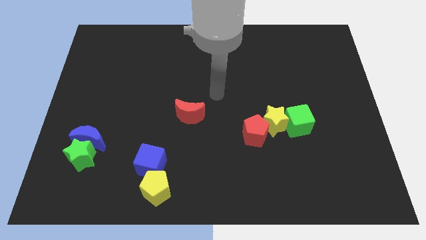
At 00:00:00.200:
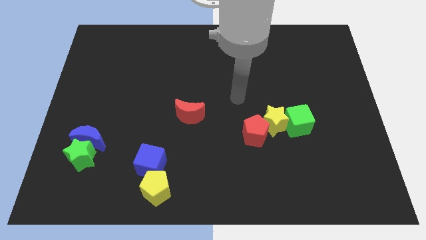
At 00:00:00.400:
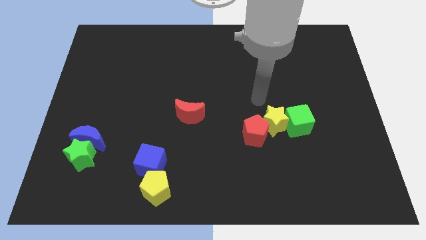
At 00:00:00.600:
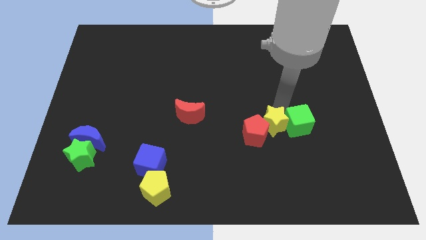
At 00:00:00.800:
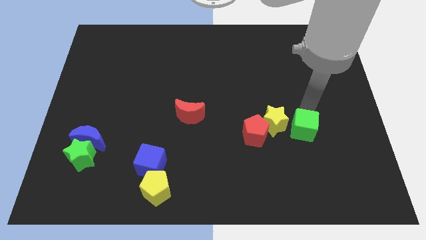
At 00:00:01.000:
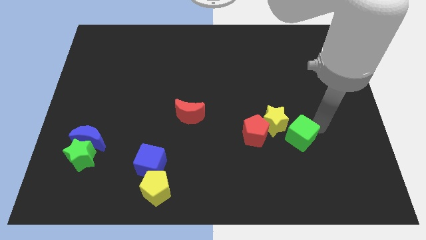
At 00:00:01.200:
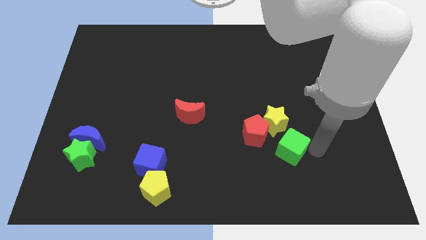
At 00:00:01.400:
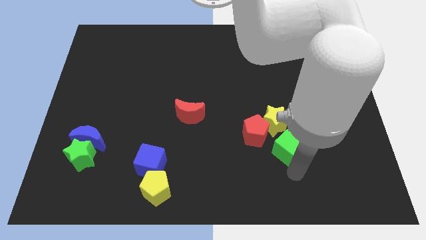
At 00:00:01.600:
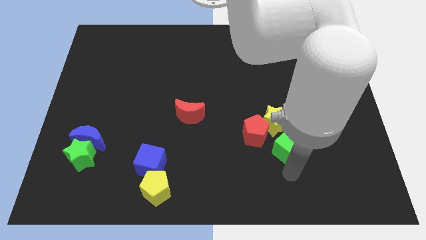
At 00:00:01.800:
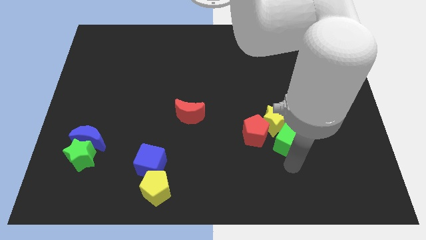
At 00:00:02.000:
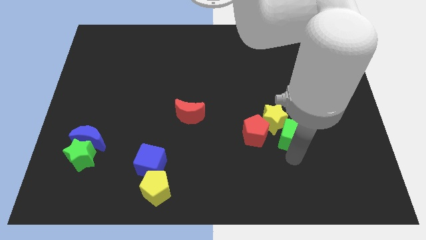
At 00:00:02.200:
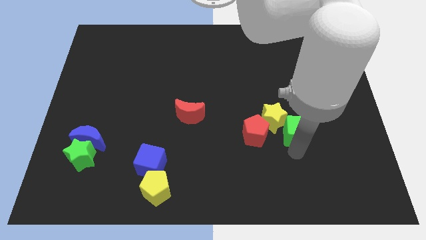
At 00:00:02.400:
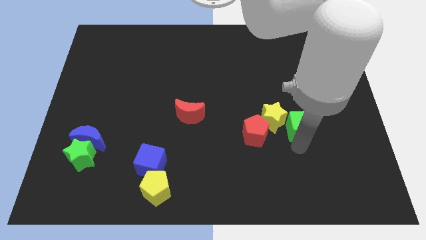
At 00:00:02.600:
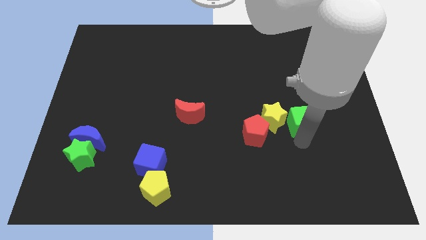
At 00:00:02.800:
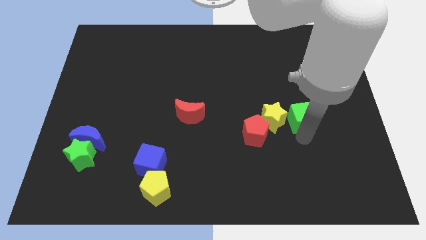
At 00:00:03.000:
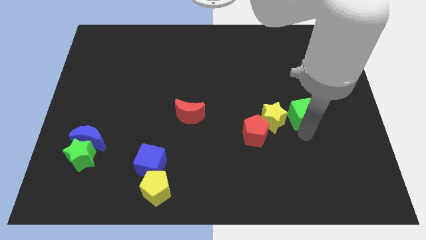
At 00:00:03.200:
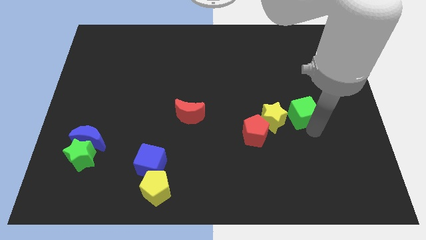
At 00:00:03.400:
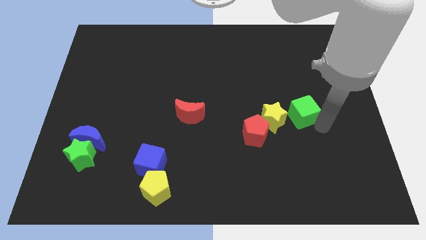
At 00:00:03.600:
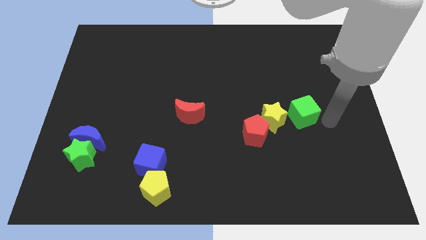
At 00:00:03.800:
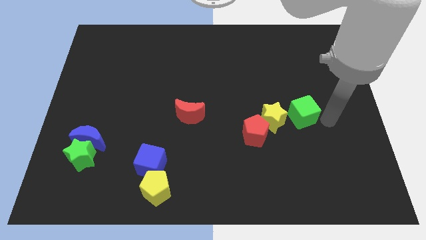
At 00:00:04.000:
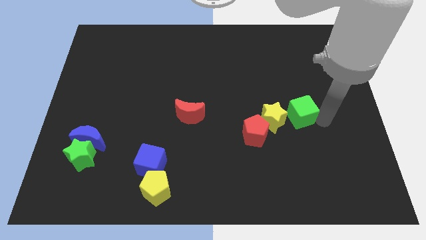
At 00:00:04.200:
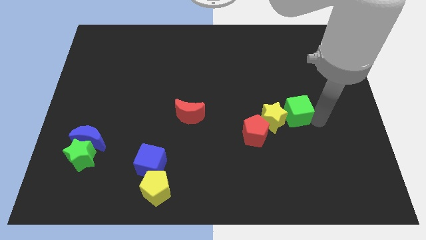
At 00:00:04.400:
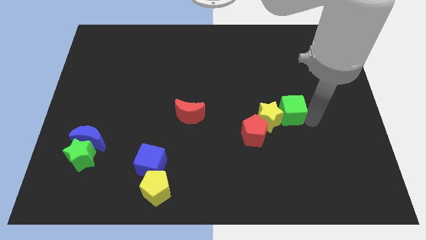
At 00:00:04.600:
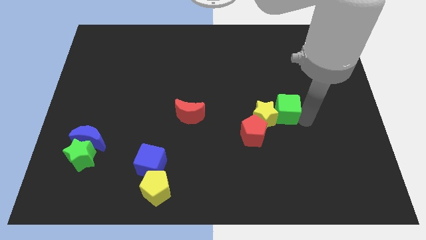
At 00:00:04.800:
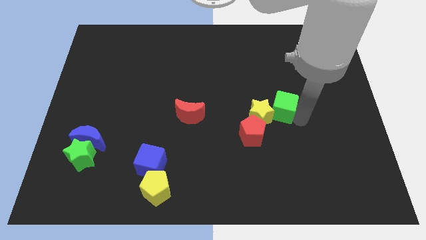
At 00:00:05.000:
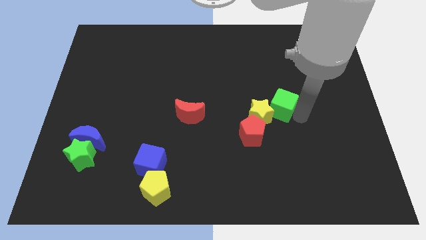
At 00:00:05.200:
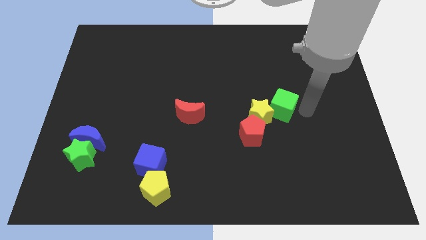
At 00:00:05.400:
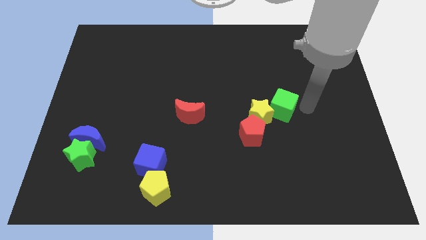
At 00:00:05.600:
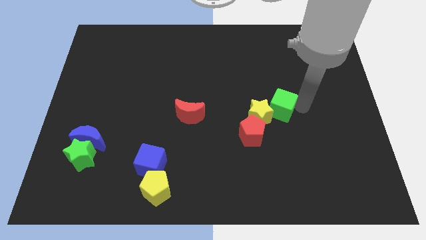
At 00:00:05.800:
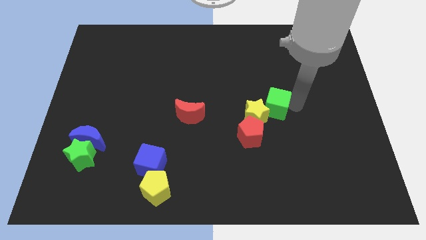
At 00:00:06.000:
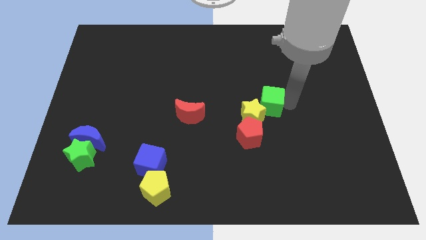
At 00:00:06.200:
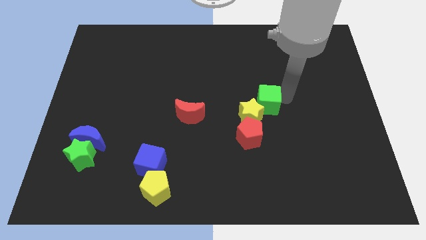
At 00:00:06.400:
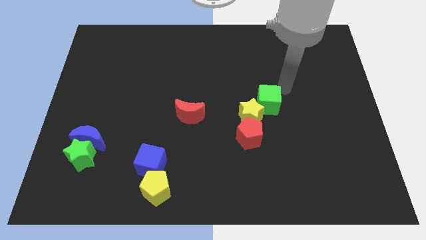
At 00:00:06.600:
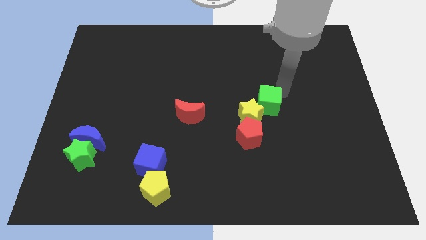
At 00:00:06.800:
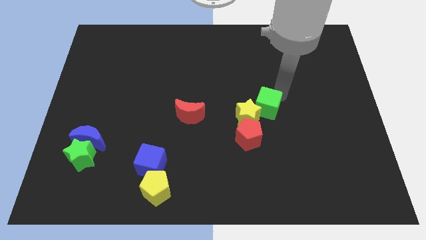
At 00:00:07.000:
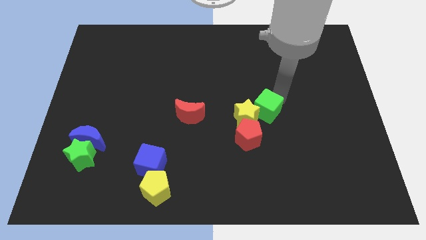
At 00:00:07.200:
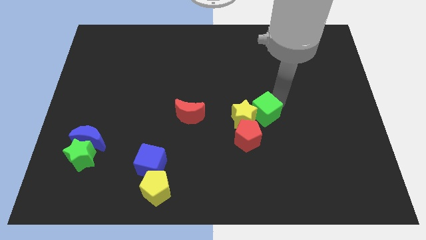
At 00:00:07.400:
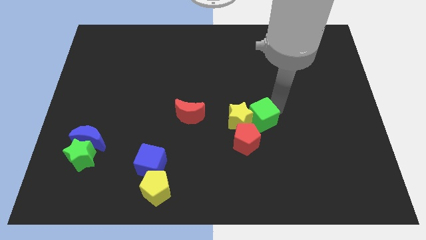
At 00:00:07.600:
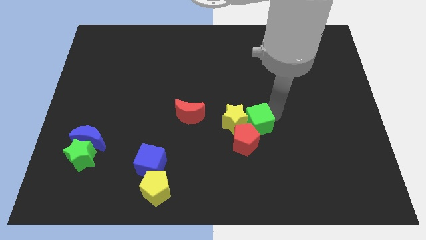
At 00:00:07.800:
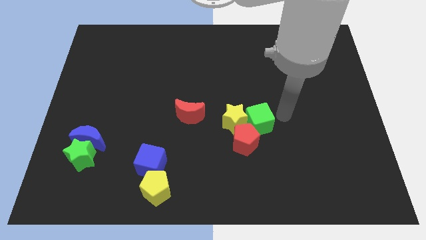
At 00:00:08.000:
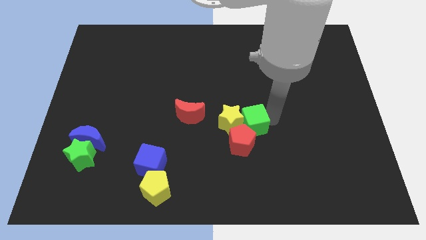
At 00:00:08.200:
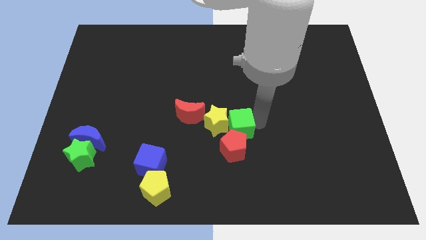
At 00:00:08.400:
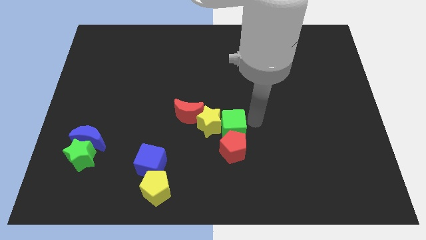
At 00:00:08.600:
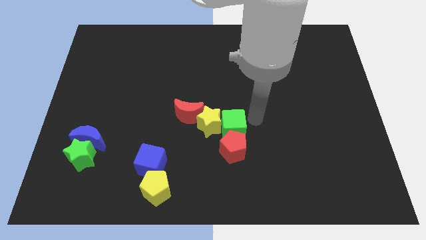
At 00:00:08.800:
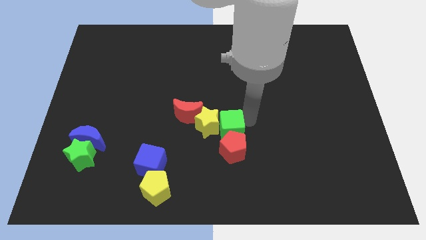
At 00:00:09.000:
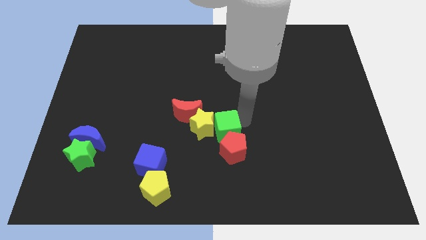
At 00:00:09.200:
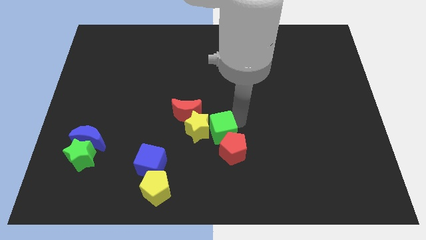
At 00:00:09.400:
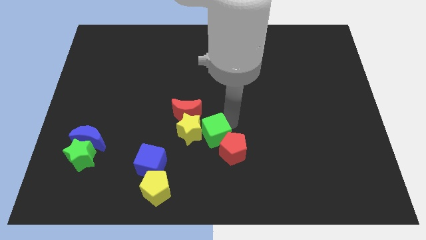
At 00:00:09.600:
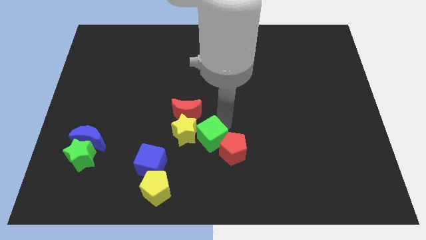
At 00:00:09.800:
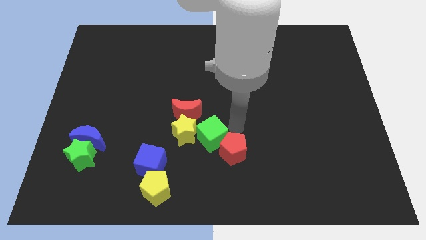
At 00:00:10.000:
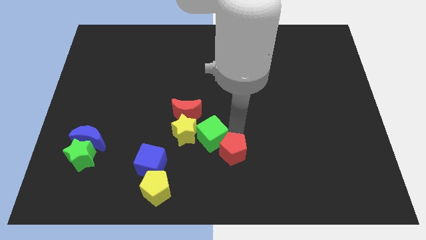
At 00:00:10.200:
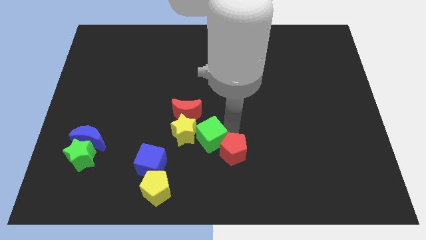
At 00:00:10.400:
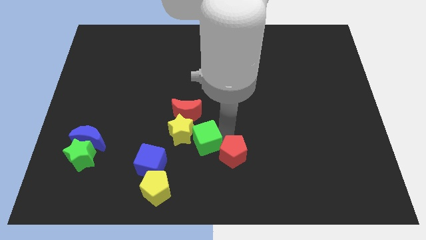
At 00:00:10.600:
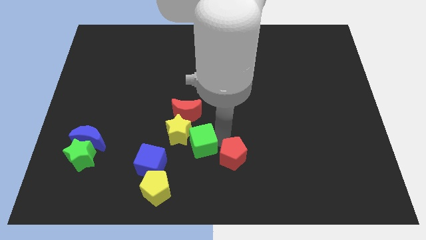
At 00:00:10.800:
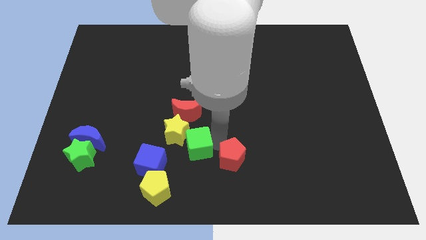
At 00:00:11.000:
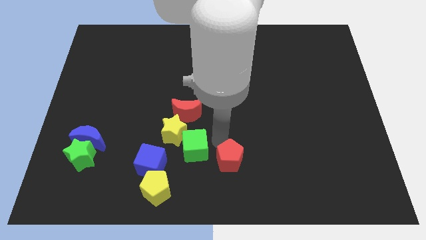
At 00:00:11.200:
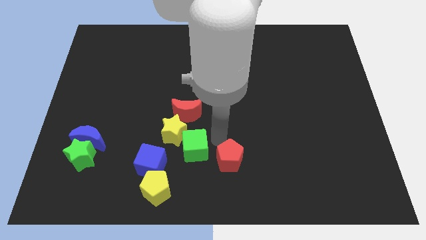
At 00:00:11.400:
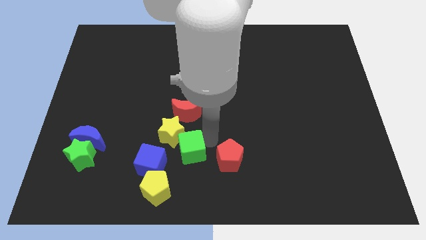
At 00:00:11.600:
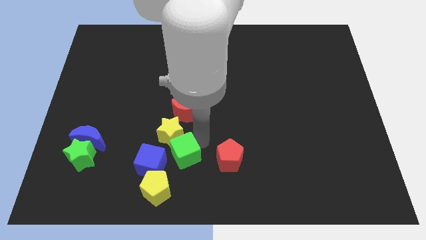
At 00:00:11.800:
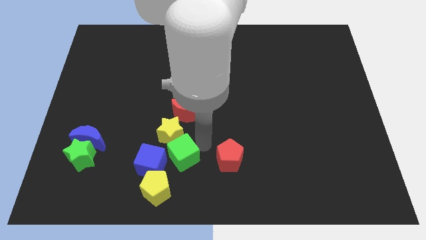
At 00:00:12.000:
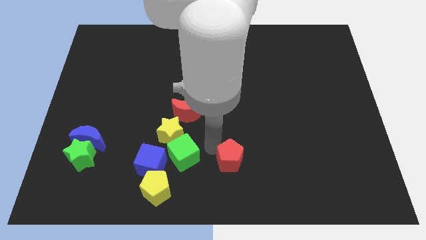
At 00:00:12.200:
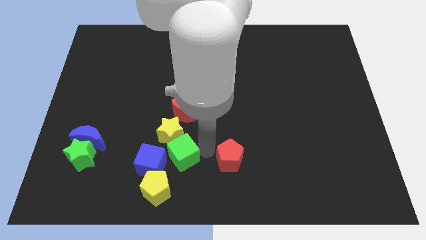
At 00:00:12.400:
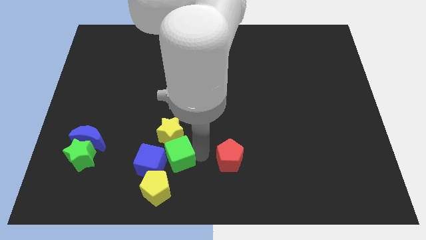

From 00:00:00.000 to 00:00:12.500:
move the green cube close to the blue cube

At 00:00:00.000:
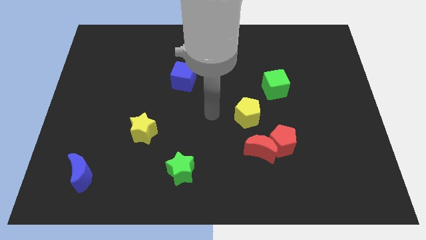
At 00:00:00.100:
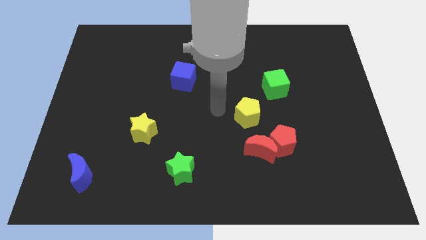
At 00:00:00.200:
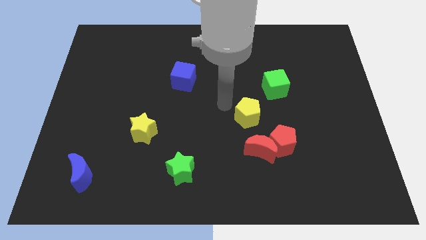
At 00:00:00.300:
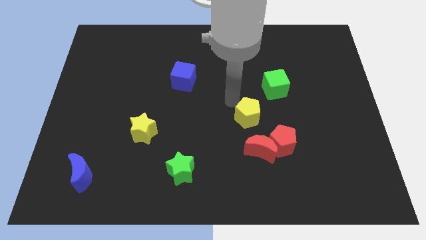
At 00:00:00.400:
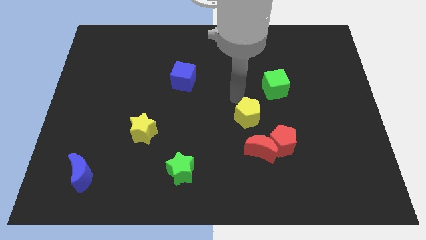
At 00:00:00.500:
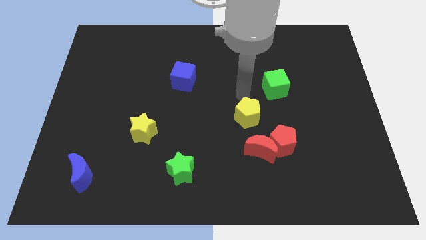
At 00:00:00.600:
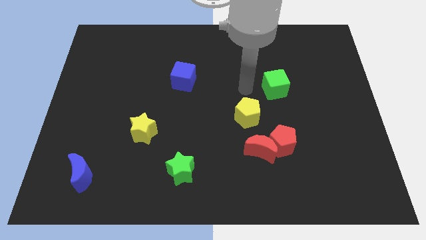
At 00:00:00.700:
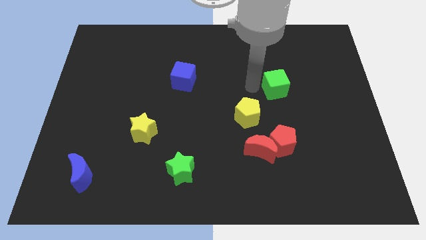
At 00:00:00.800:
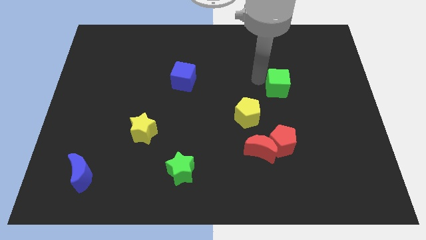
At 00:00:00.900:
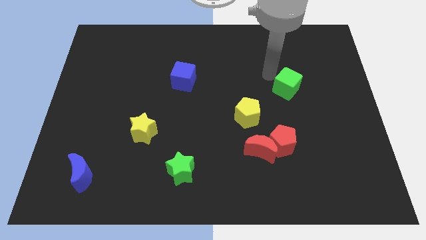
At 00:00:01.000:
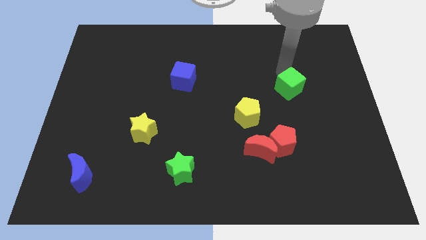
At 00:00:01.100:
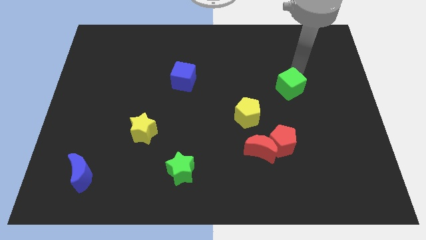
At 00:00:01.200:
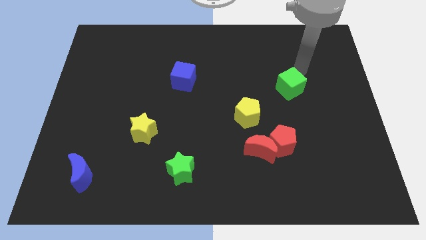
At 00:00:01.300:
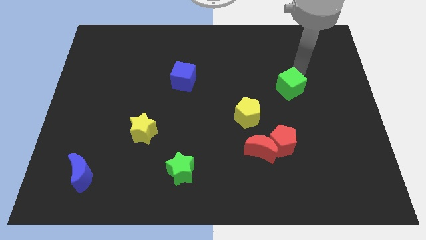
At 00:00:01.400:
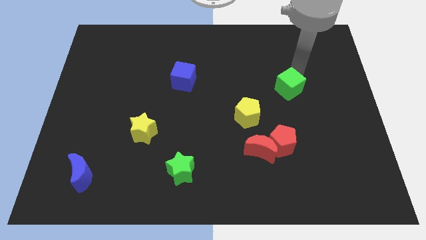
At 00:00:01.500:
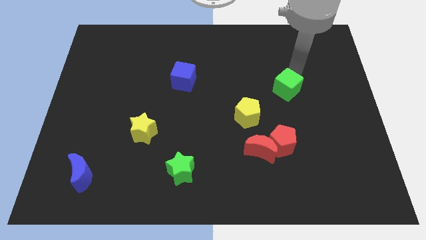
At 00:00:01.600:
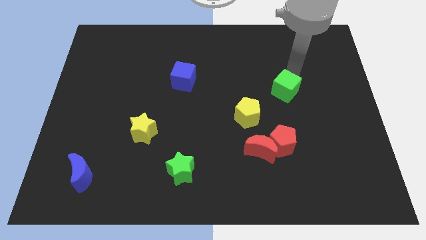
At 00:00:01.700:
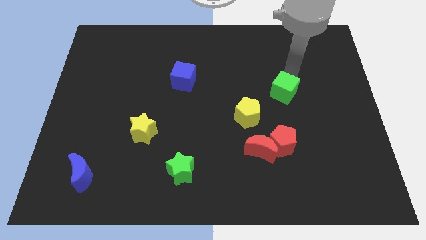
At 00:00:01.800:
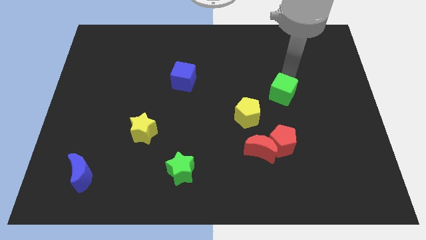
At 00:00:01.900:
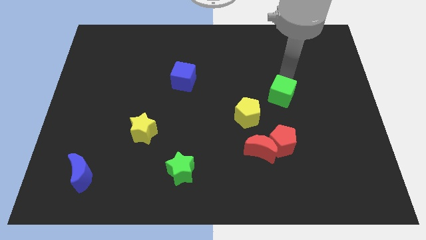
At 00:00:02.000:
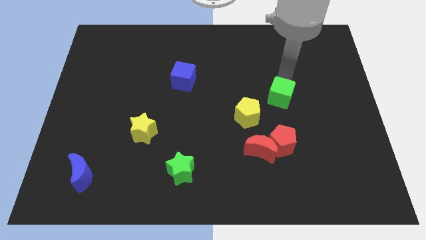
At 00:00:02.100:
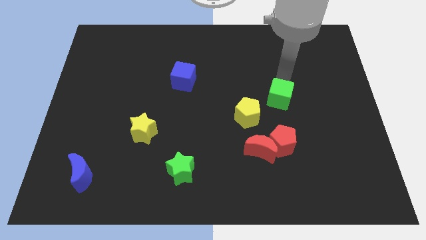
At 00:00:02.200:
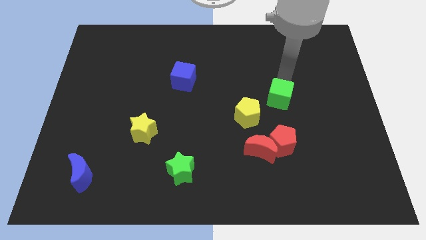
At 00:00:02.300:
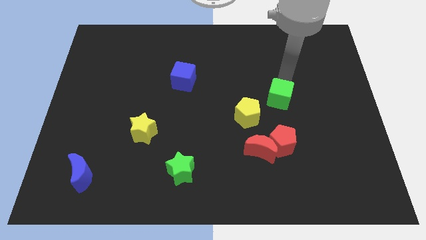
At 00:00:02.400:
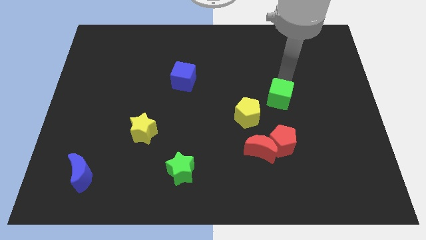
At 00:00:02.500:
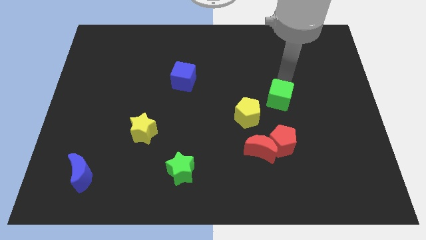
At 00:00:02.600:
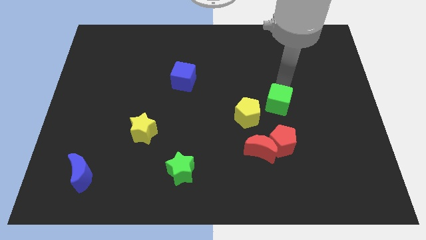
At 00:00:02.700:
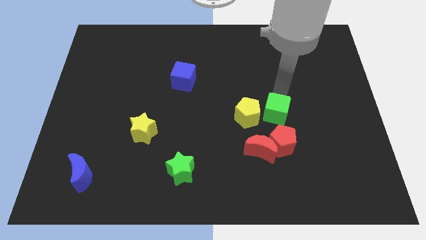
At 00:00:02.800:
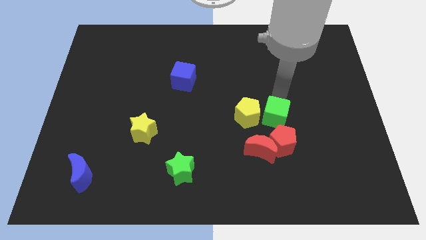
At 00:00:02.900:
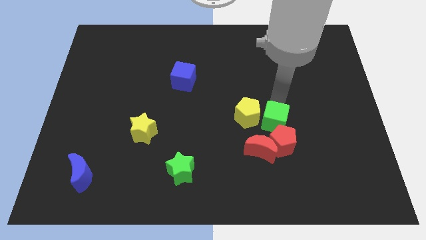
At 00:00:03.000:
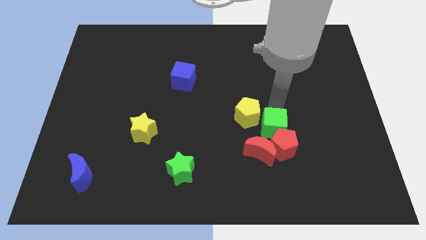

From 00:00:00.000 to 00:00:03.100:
move the green cube towards the red pentagon
